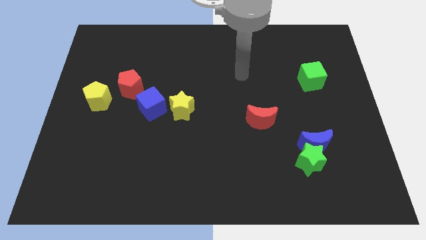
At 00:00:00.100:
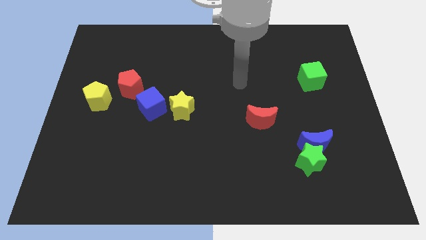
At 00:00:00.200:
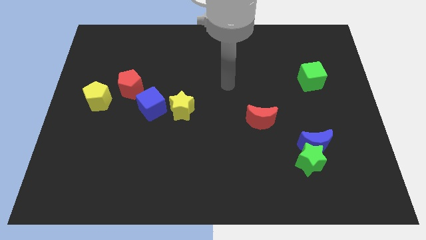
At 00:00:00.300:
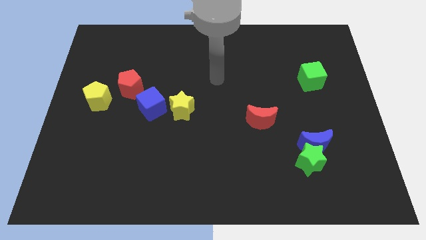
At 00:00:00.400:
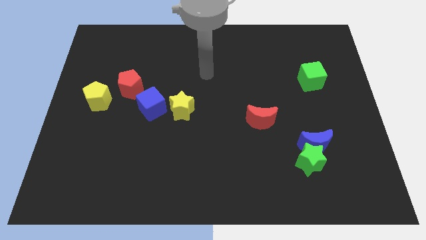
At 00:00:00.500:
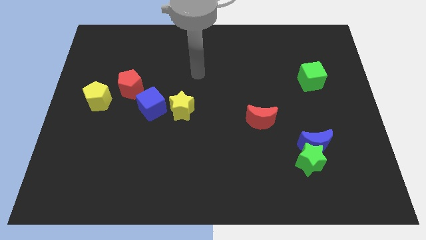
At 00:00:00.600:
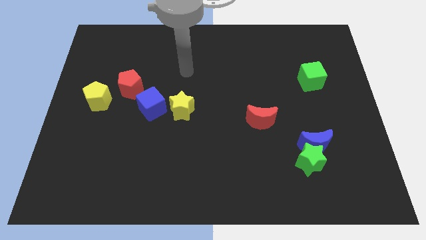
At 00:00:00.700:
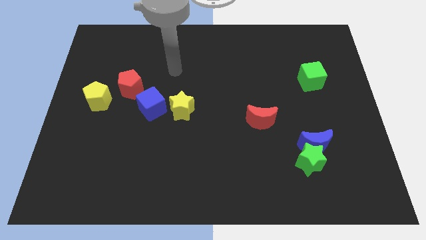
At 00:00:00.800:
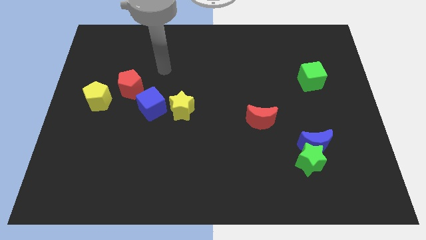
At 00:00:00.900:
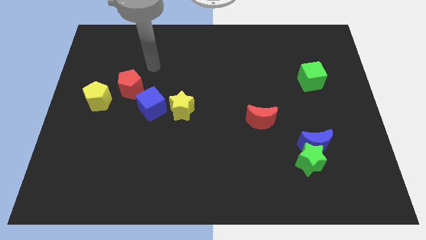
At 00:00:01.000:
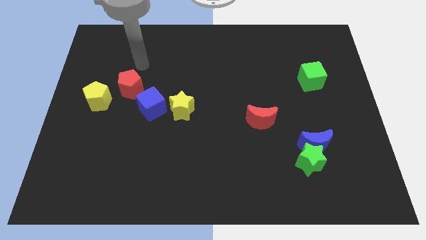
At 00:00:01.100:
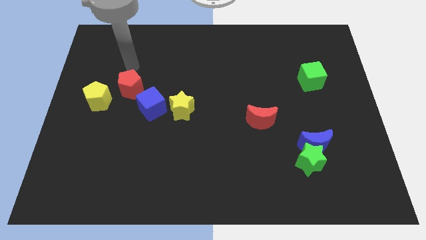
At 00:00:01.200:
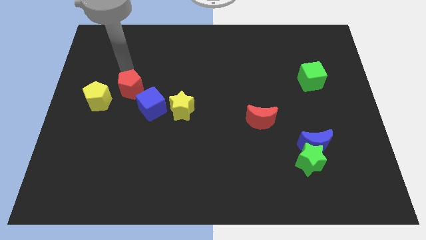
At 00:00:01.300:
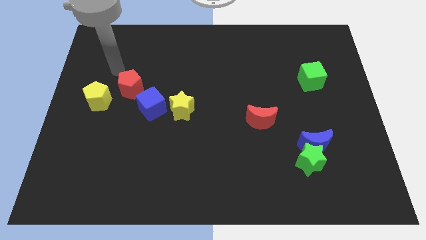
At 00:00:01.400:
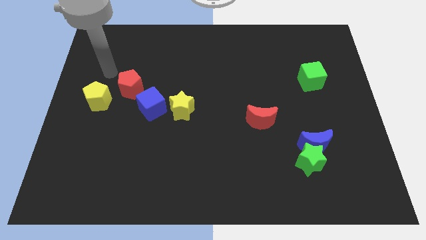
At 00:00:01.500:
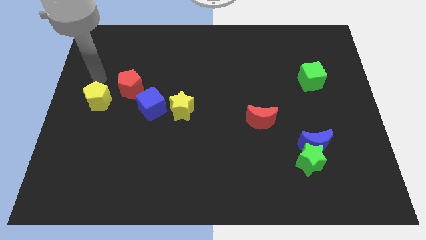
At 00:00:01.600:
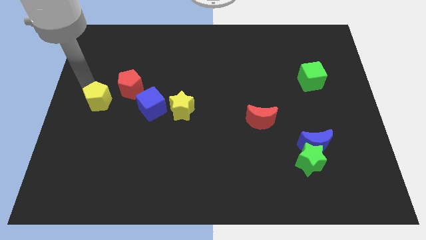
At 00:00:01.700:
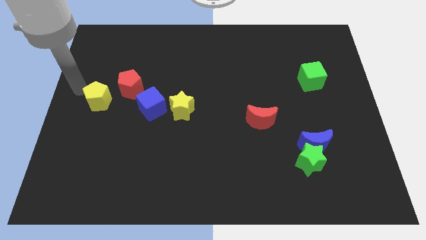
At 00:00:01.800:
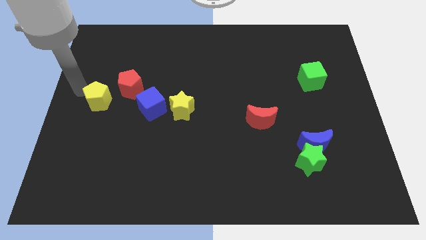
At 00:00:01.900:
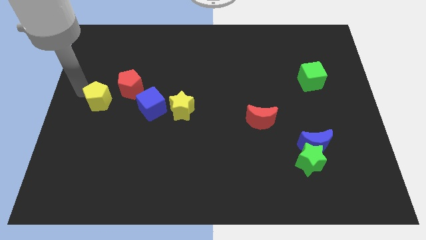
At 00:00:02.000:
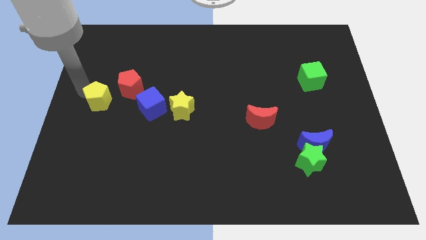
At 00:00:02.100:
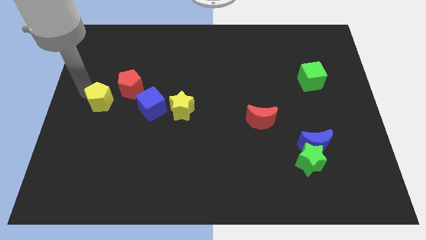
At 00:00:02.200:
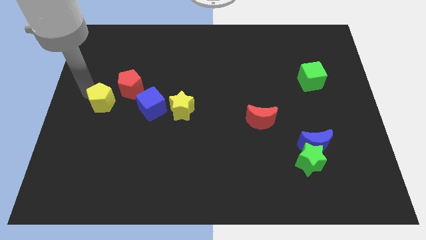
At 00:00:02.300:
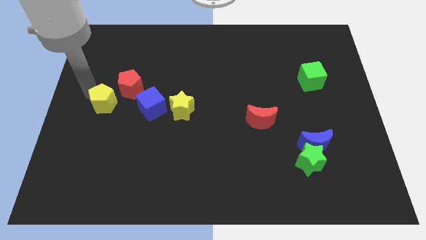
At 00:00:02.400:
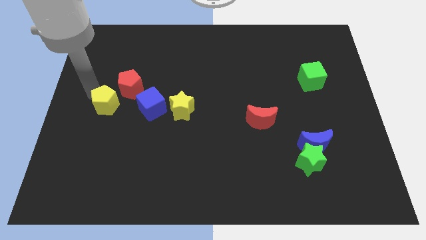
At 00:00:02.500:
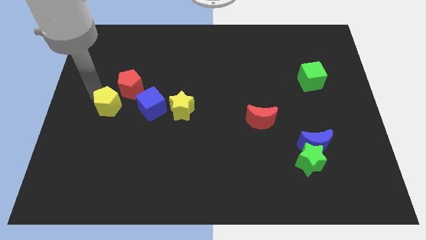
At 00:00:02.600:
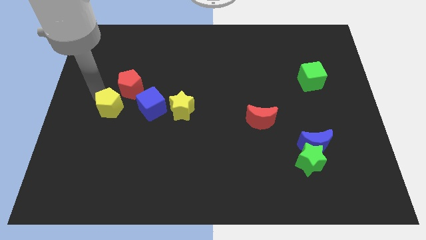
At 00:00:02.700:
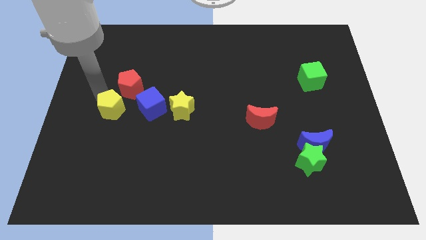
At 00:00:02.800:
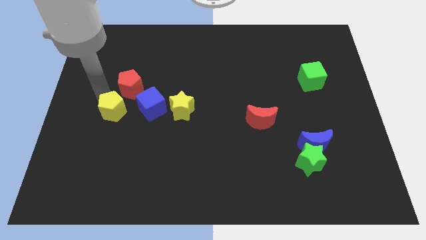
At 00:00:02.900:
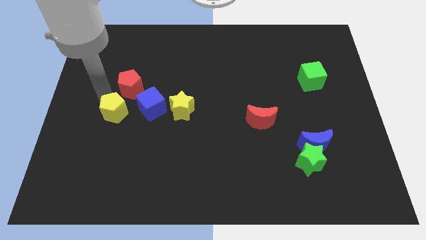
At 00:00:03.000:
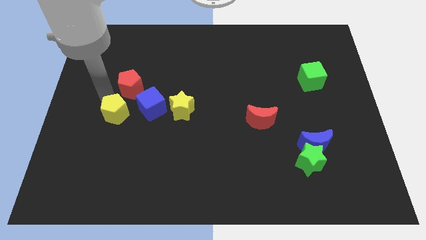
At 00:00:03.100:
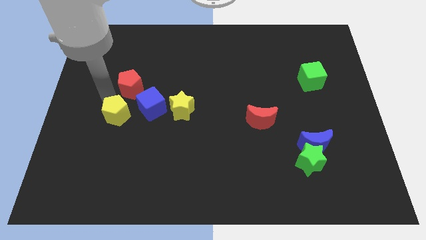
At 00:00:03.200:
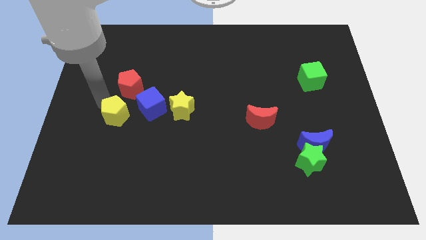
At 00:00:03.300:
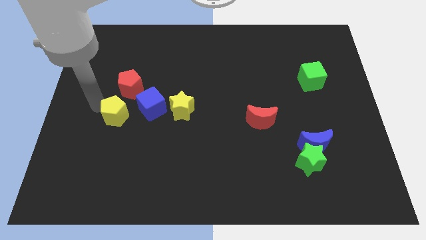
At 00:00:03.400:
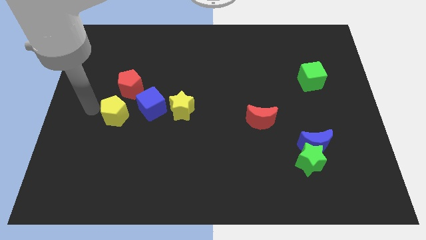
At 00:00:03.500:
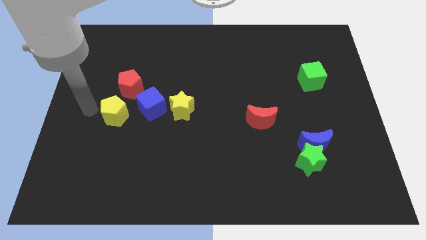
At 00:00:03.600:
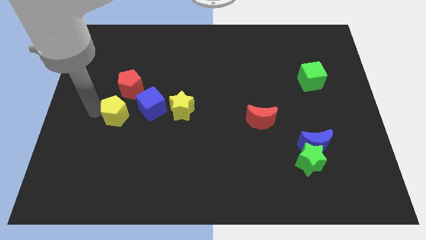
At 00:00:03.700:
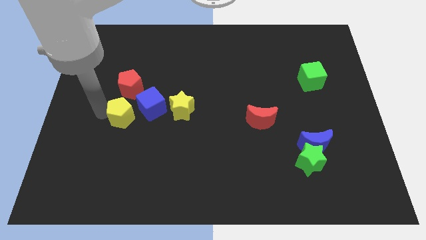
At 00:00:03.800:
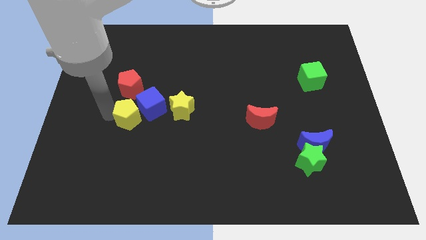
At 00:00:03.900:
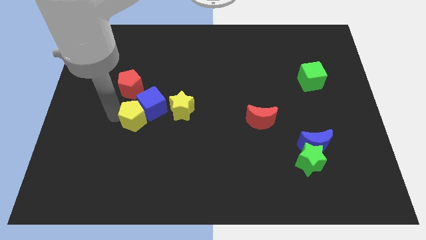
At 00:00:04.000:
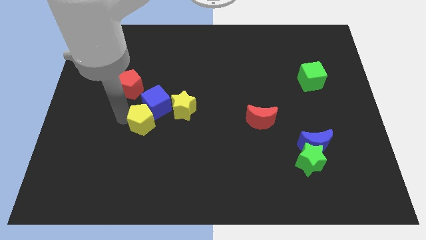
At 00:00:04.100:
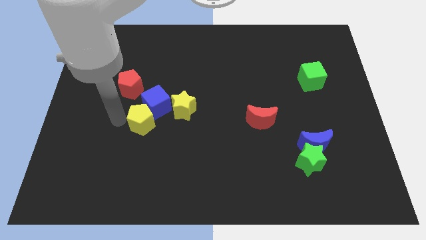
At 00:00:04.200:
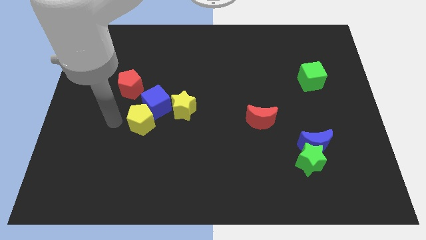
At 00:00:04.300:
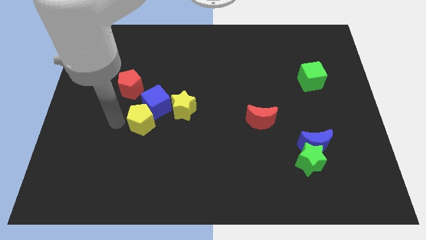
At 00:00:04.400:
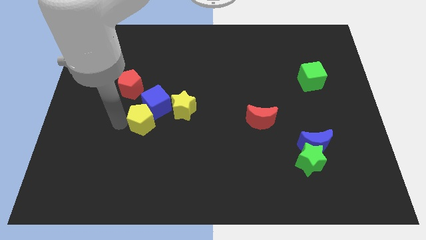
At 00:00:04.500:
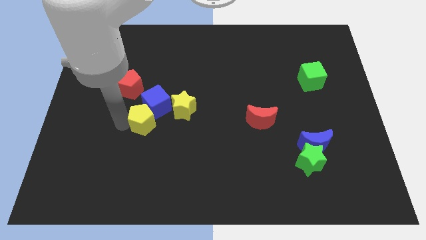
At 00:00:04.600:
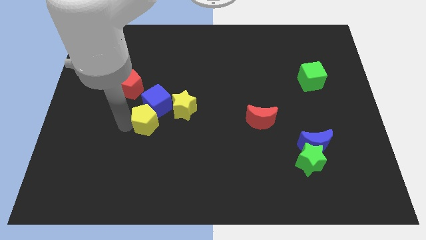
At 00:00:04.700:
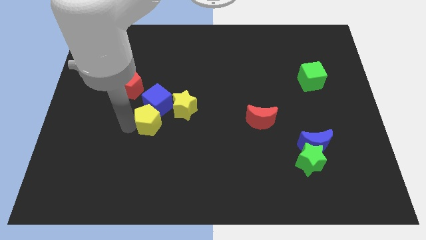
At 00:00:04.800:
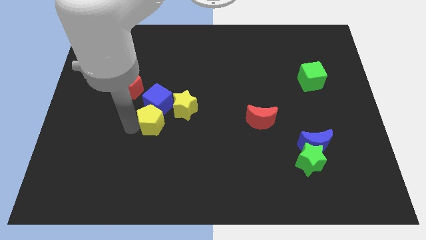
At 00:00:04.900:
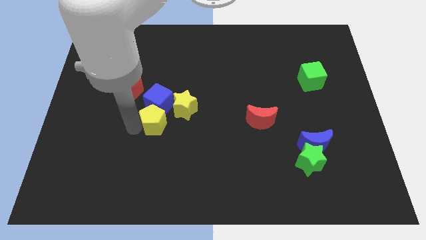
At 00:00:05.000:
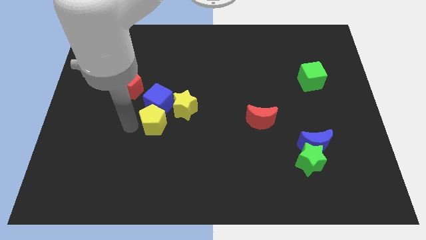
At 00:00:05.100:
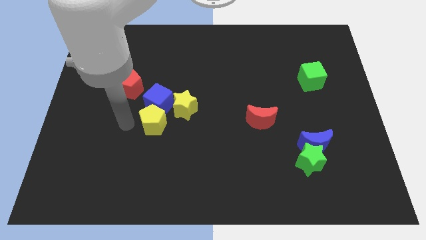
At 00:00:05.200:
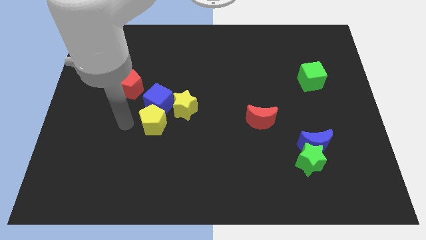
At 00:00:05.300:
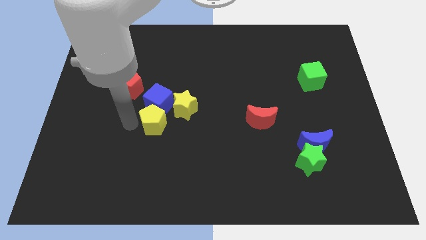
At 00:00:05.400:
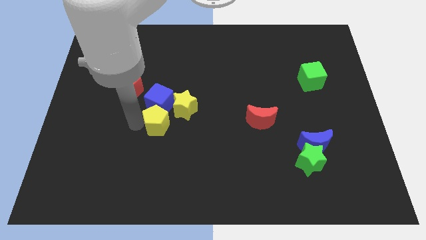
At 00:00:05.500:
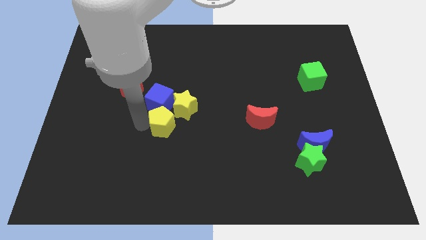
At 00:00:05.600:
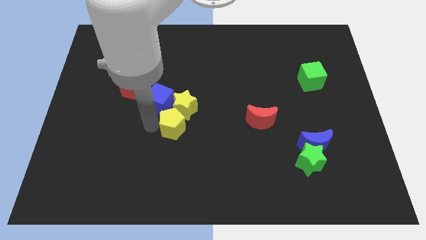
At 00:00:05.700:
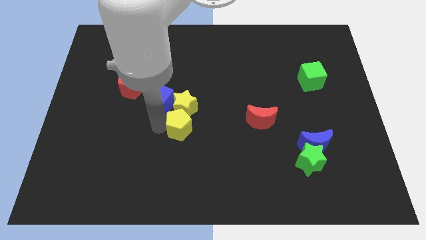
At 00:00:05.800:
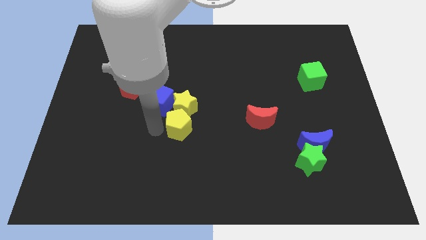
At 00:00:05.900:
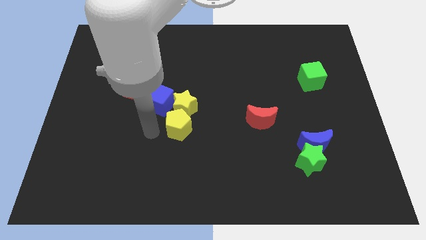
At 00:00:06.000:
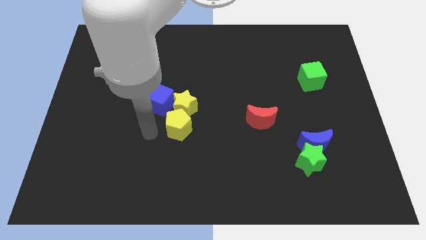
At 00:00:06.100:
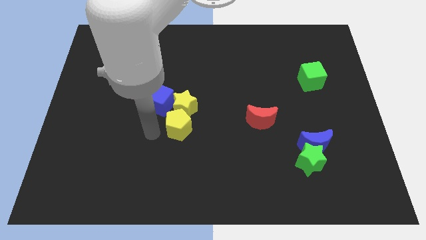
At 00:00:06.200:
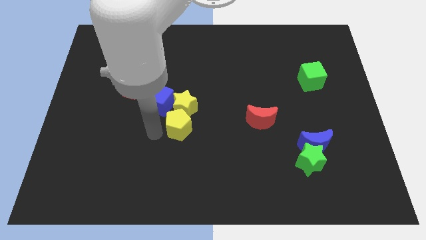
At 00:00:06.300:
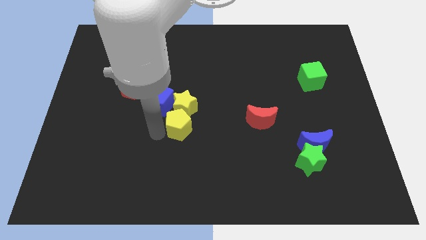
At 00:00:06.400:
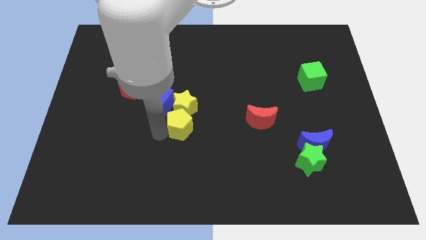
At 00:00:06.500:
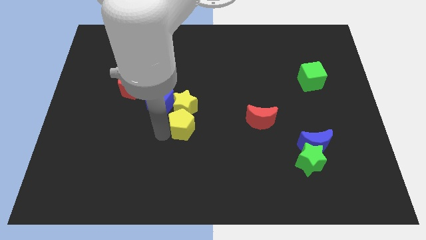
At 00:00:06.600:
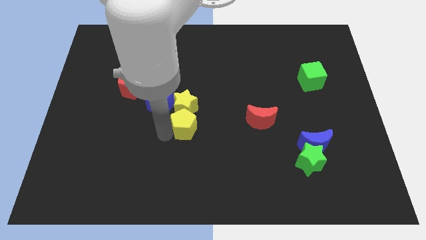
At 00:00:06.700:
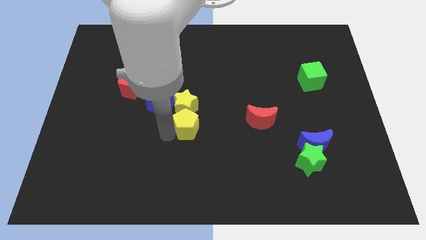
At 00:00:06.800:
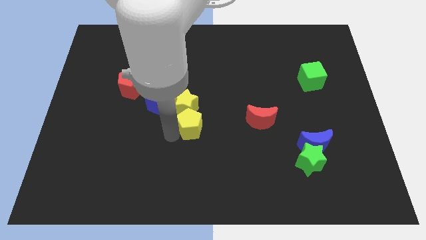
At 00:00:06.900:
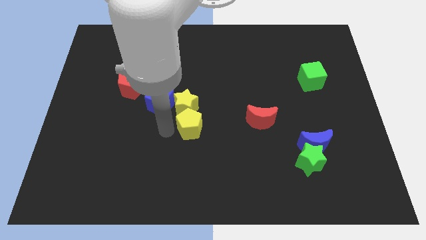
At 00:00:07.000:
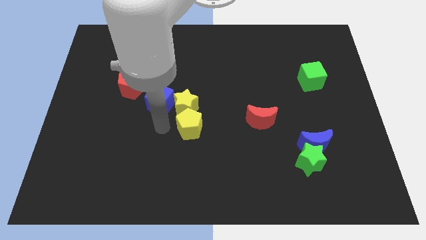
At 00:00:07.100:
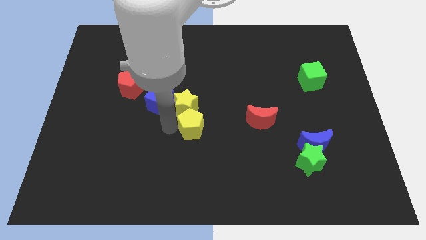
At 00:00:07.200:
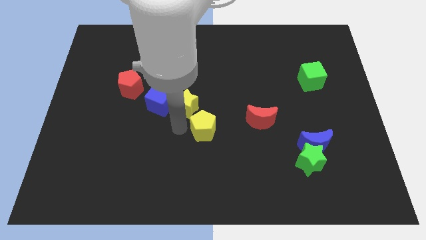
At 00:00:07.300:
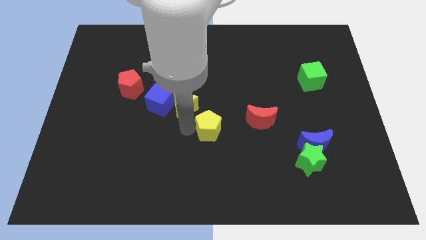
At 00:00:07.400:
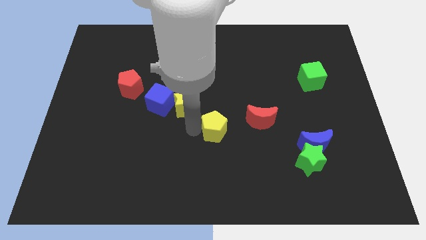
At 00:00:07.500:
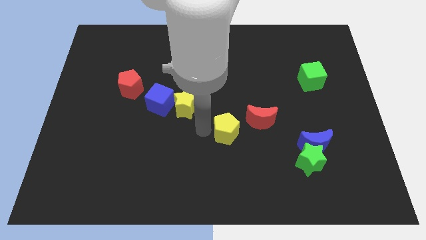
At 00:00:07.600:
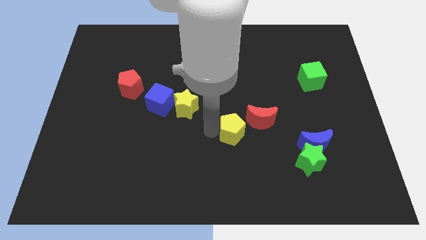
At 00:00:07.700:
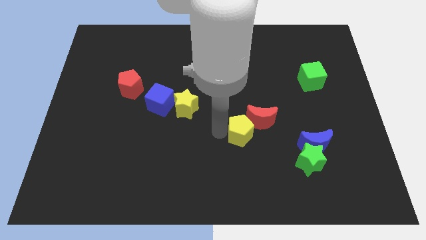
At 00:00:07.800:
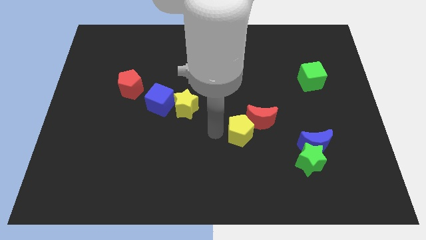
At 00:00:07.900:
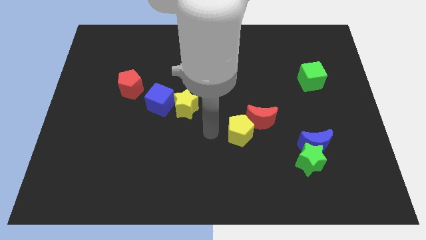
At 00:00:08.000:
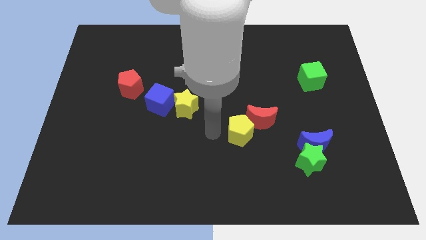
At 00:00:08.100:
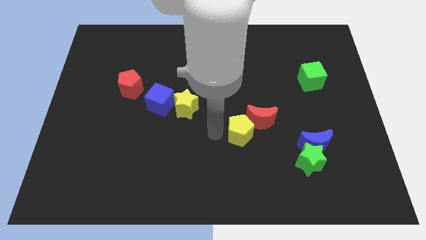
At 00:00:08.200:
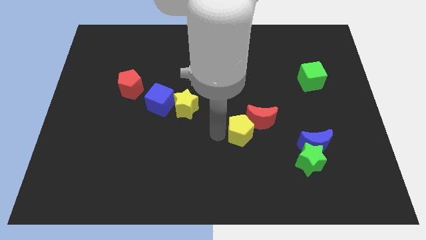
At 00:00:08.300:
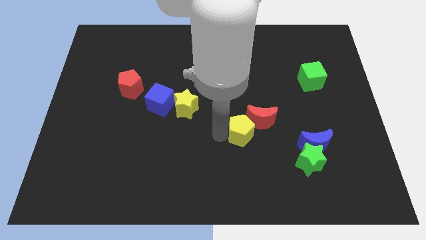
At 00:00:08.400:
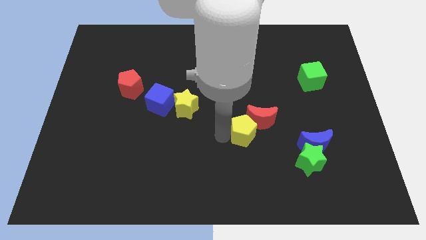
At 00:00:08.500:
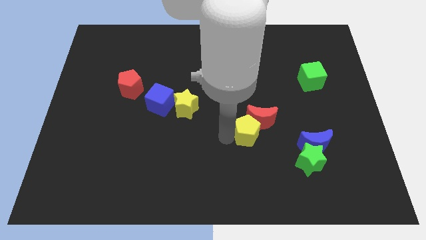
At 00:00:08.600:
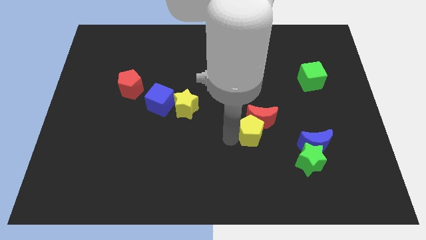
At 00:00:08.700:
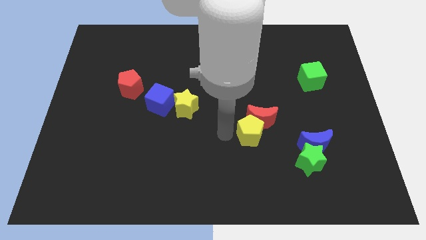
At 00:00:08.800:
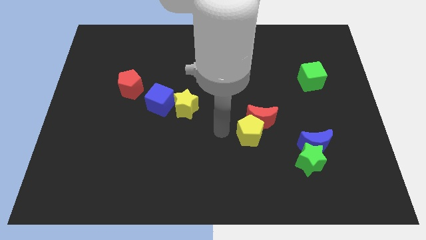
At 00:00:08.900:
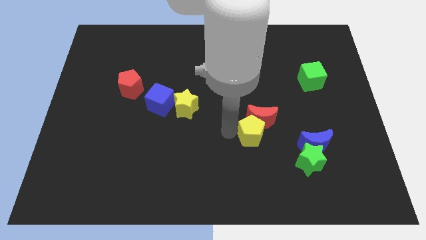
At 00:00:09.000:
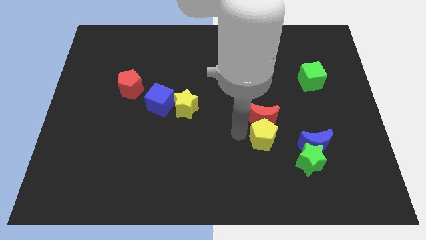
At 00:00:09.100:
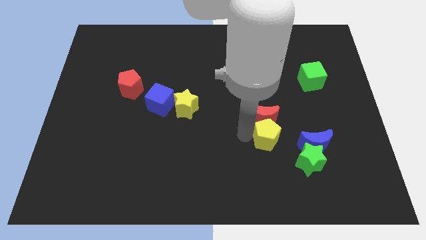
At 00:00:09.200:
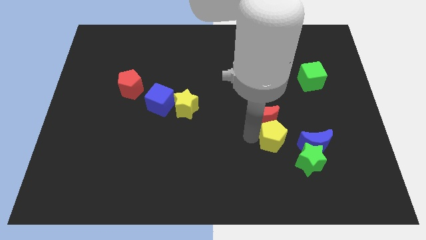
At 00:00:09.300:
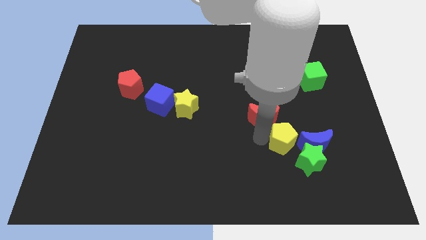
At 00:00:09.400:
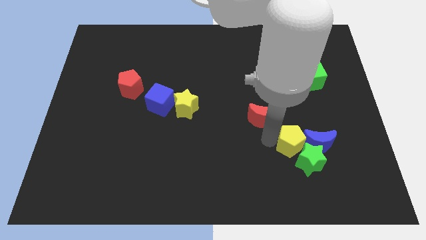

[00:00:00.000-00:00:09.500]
slide the yellow pentagon to the blue moon
